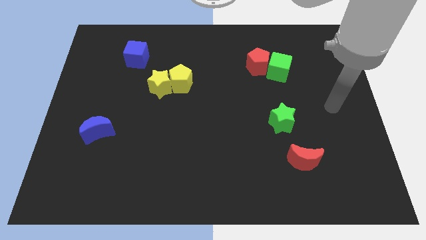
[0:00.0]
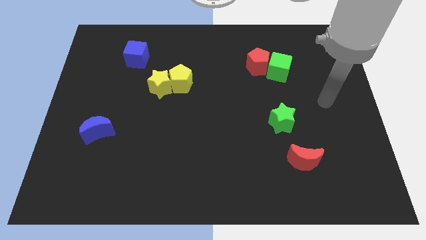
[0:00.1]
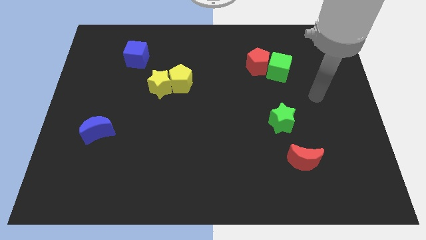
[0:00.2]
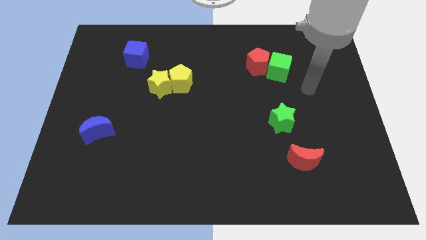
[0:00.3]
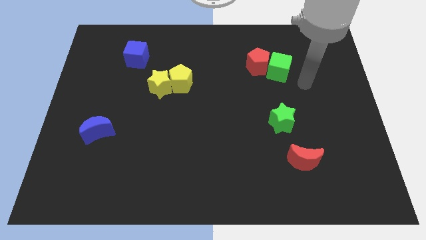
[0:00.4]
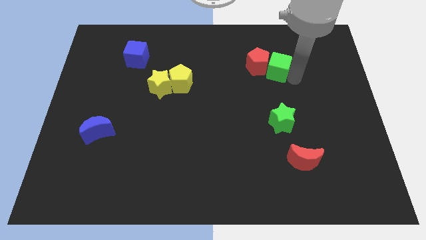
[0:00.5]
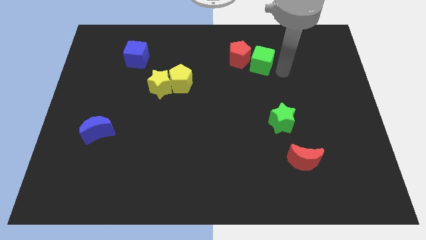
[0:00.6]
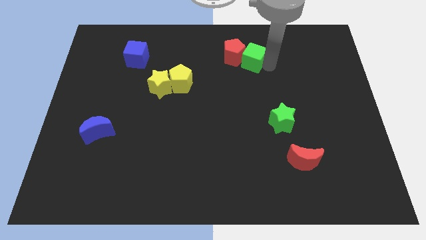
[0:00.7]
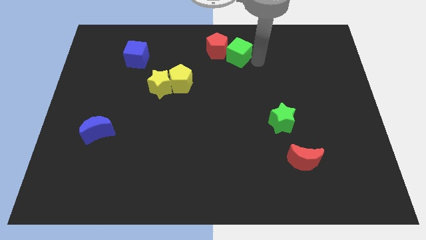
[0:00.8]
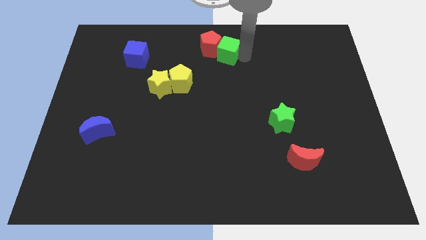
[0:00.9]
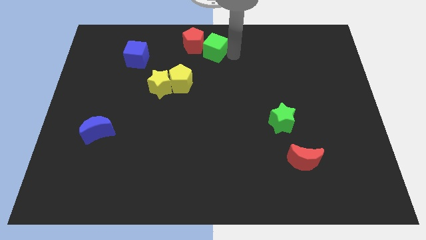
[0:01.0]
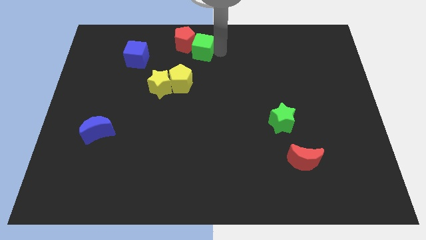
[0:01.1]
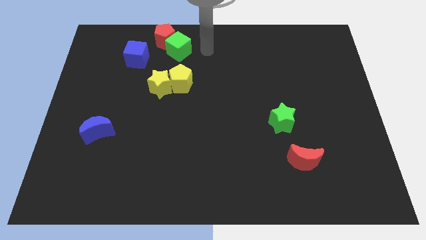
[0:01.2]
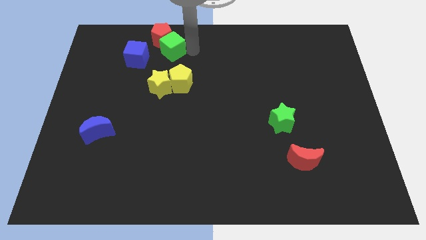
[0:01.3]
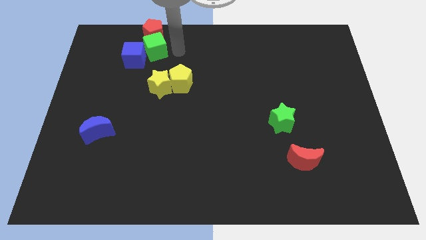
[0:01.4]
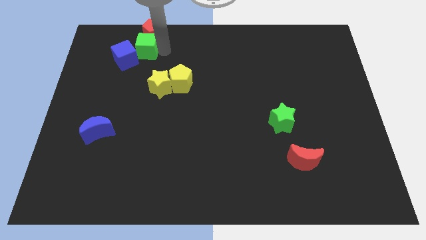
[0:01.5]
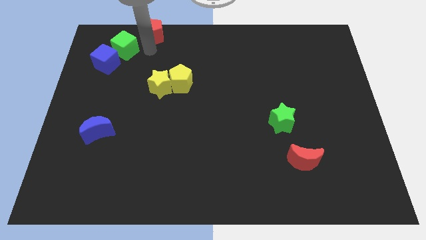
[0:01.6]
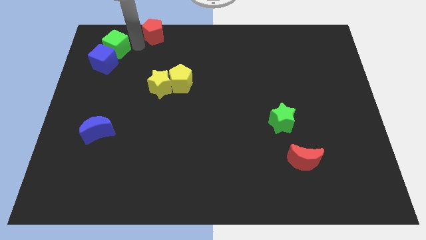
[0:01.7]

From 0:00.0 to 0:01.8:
move the red pentagon away from the green cube

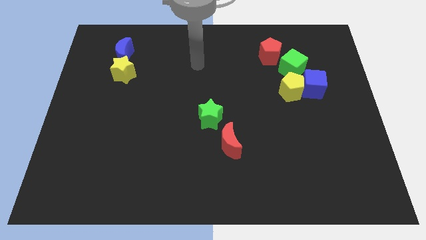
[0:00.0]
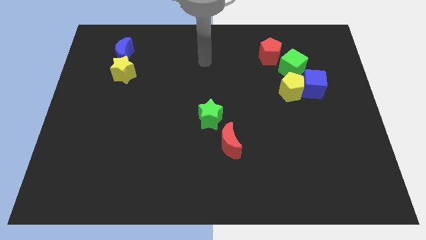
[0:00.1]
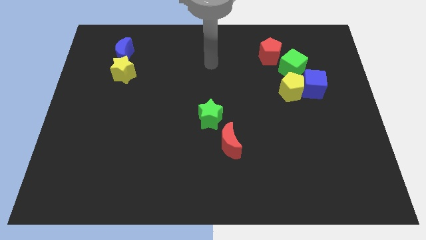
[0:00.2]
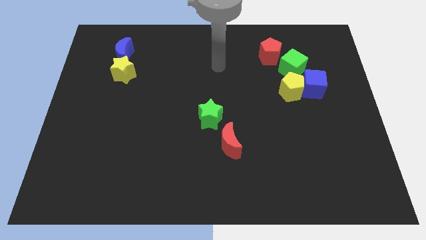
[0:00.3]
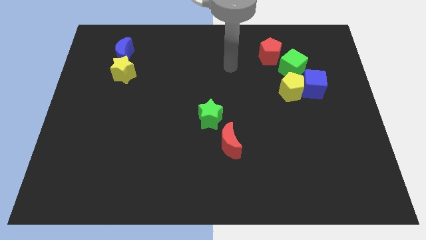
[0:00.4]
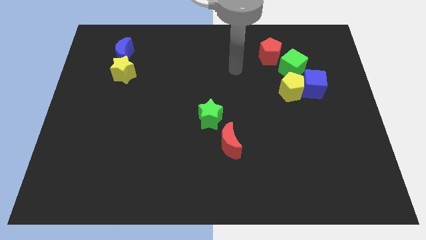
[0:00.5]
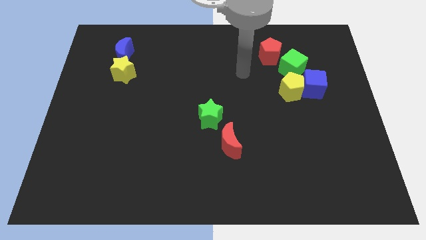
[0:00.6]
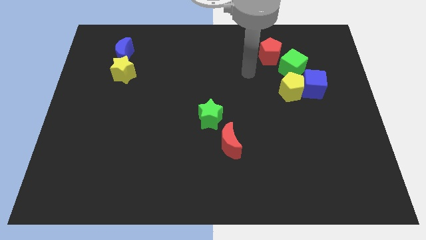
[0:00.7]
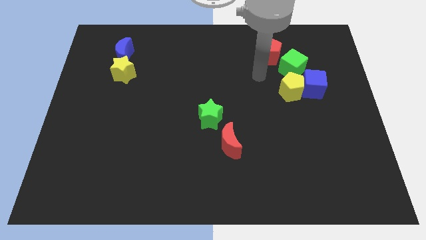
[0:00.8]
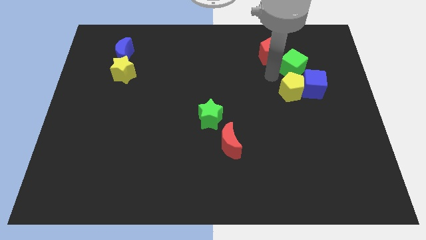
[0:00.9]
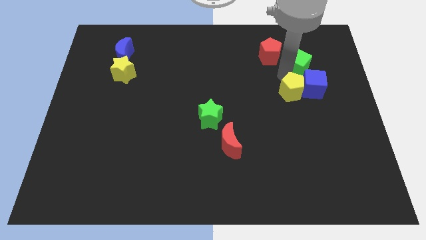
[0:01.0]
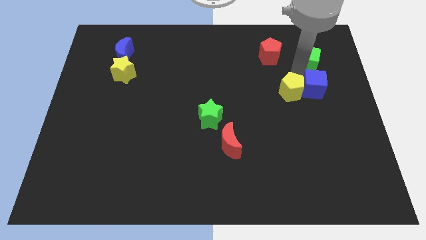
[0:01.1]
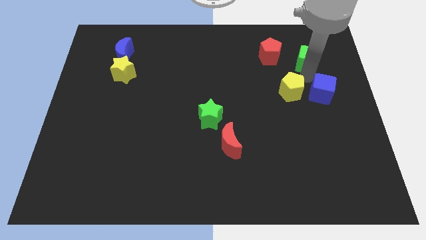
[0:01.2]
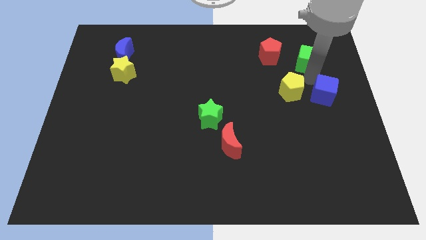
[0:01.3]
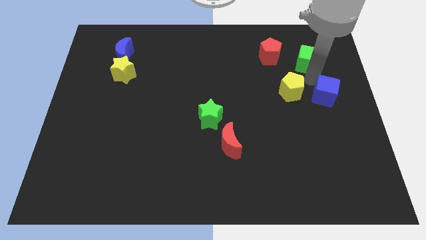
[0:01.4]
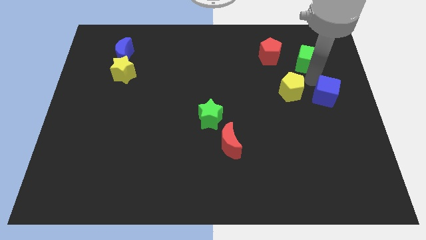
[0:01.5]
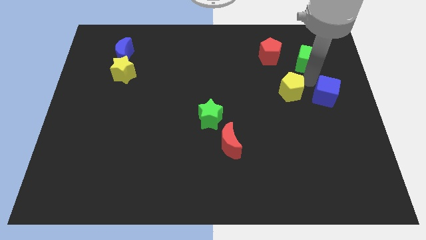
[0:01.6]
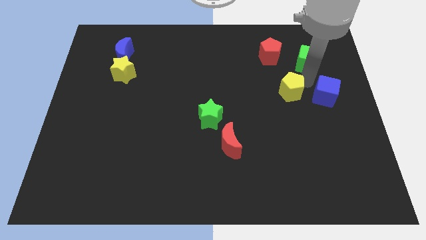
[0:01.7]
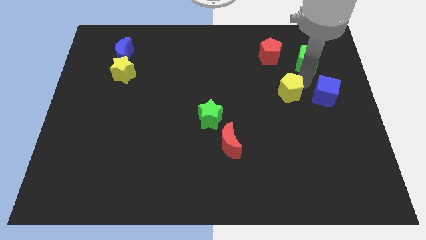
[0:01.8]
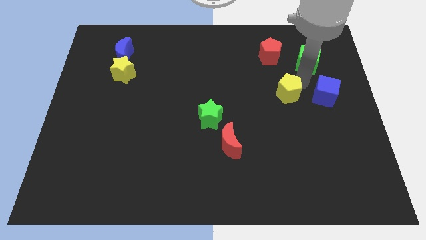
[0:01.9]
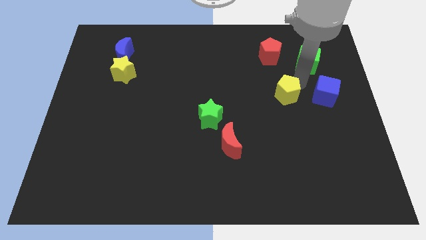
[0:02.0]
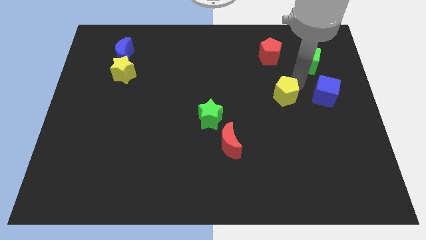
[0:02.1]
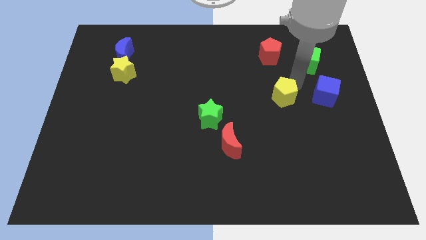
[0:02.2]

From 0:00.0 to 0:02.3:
move the yellow pentagon away from the blue cube and green cube

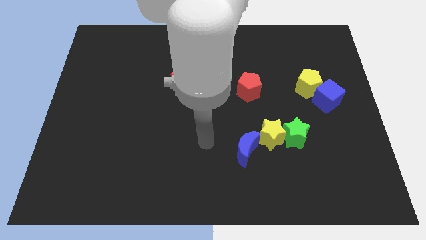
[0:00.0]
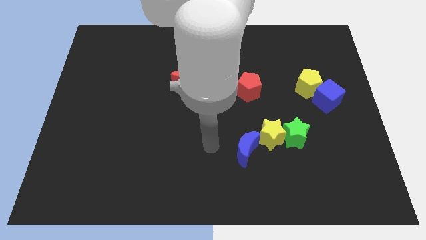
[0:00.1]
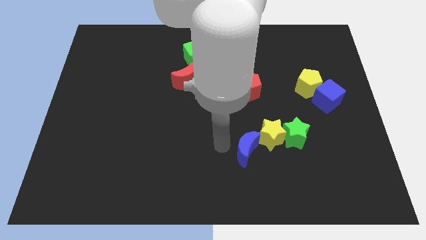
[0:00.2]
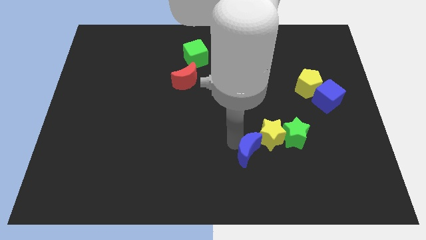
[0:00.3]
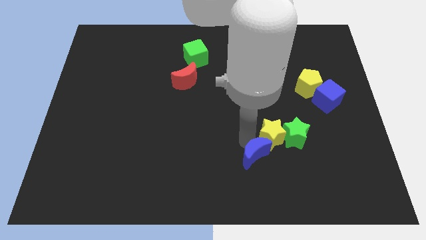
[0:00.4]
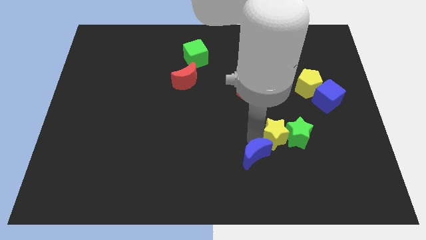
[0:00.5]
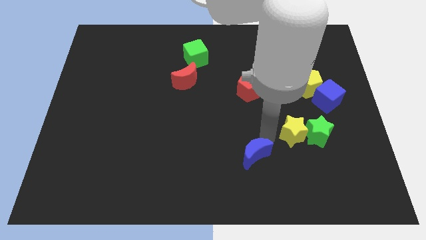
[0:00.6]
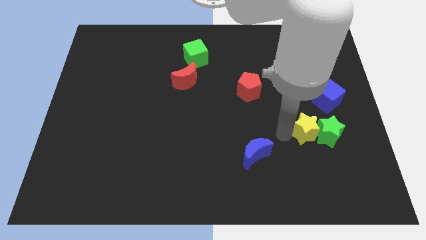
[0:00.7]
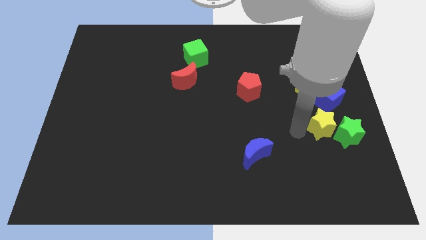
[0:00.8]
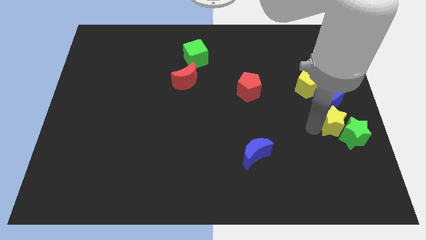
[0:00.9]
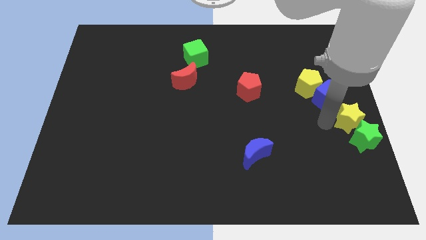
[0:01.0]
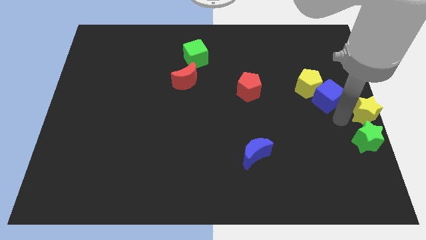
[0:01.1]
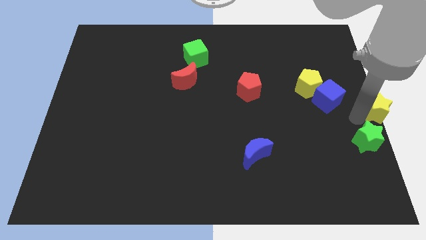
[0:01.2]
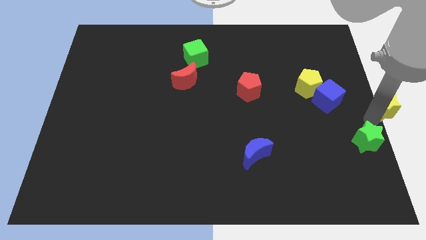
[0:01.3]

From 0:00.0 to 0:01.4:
separate the green star from the yellow star

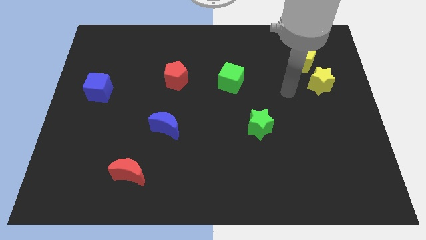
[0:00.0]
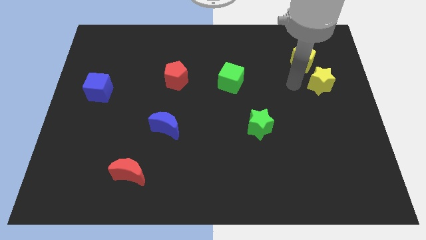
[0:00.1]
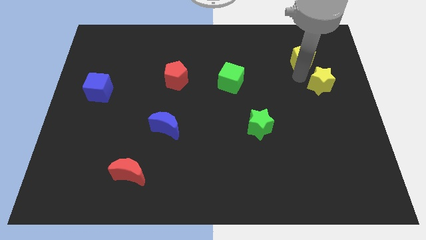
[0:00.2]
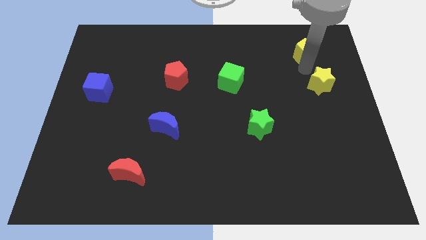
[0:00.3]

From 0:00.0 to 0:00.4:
move the yellow star away from the yellow pentagon

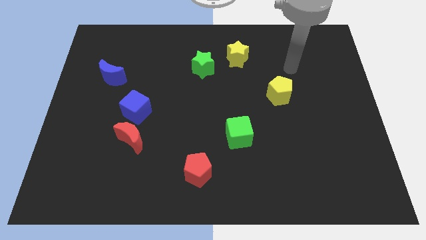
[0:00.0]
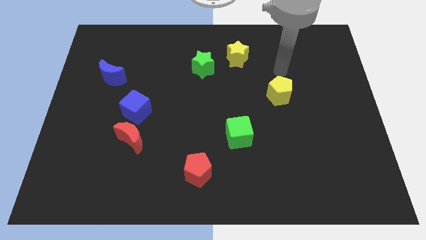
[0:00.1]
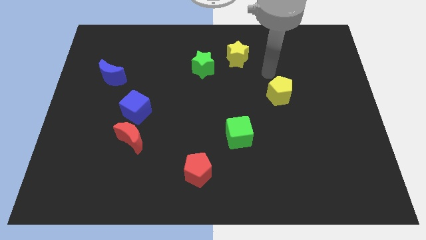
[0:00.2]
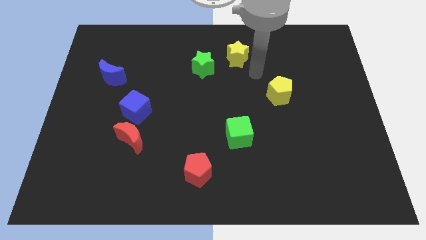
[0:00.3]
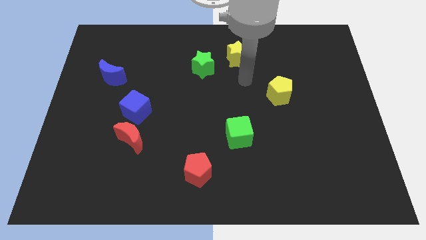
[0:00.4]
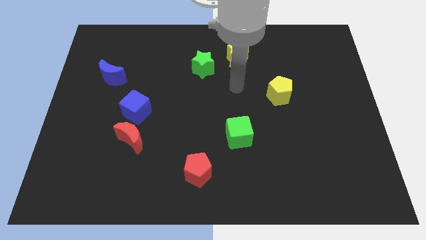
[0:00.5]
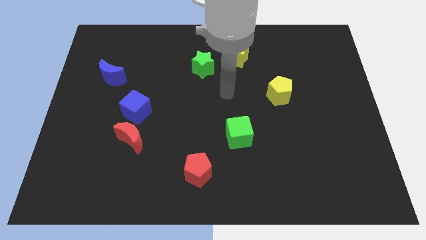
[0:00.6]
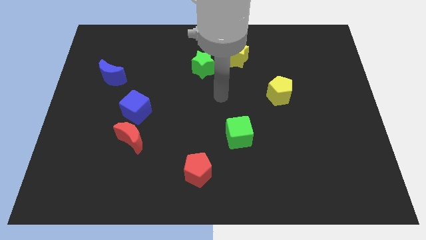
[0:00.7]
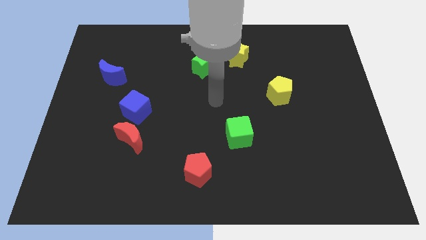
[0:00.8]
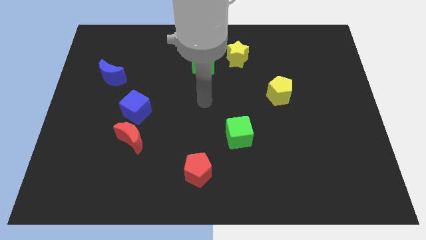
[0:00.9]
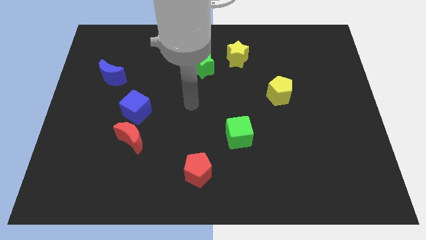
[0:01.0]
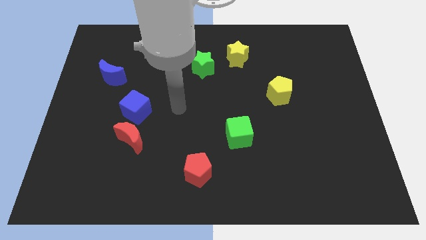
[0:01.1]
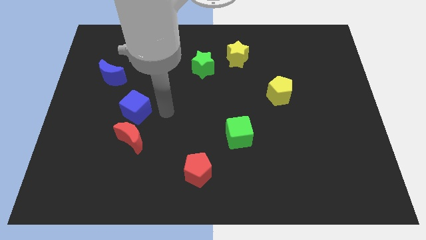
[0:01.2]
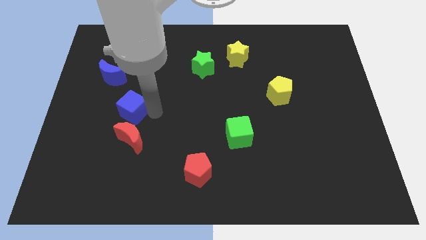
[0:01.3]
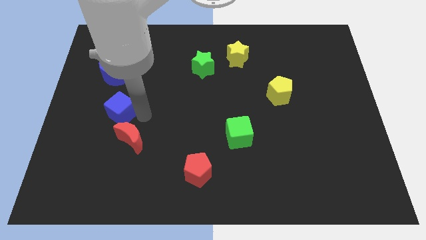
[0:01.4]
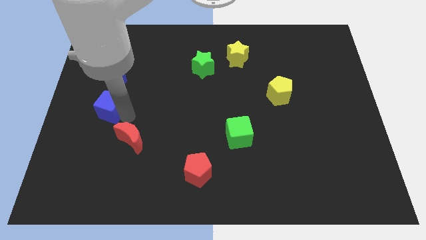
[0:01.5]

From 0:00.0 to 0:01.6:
pull the red moon apart from the blue cube

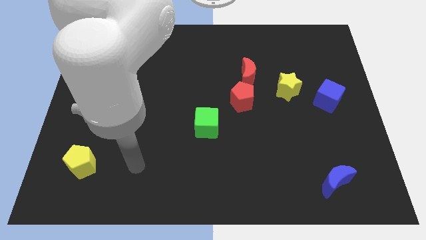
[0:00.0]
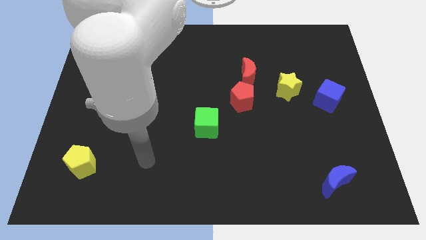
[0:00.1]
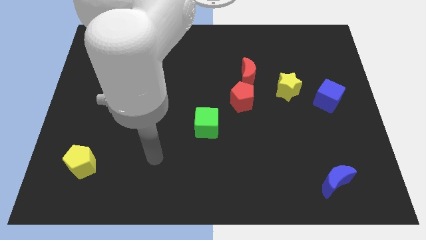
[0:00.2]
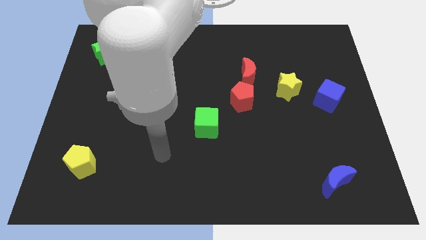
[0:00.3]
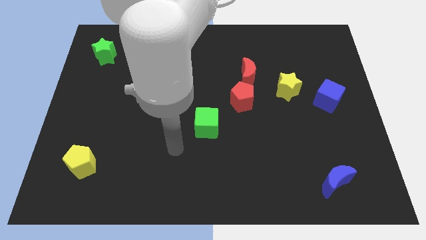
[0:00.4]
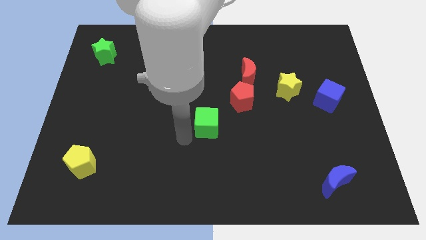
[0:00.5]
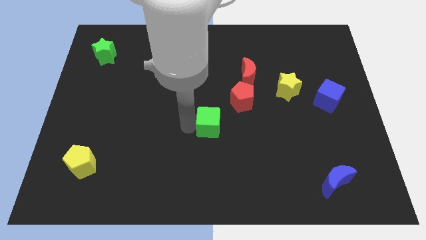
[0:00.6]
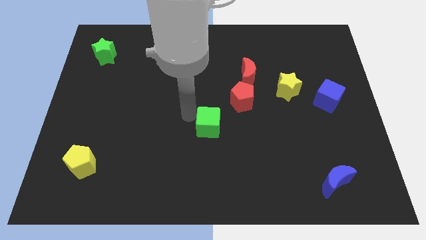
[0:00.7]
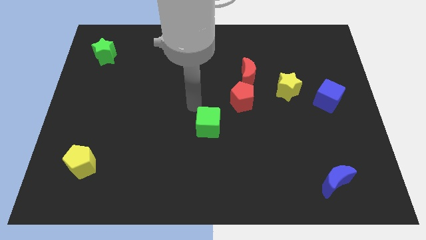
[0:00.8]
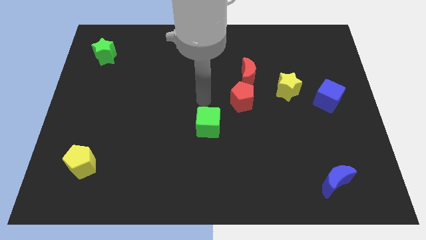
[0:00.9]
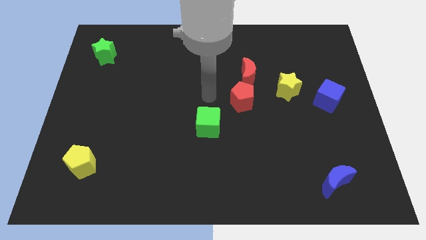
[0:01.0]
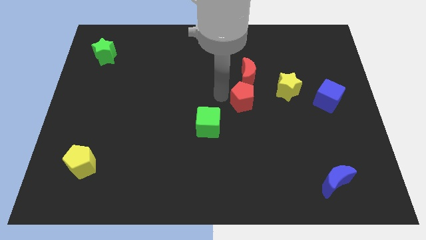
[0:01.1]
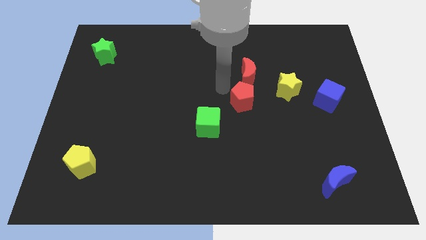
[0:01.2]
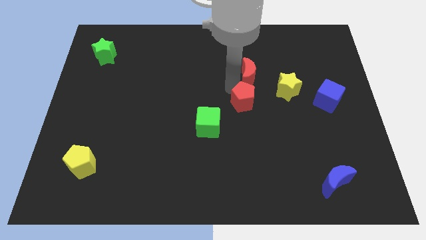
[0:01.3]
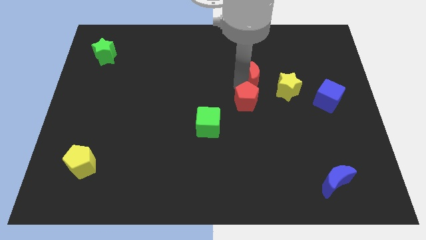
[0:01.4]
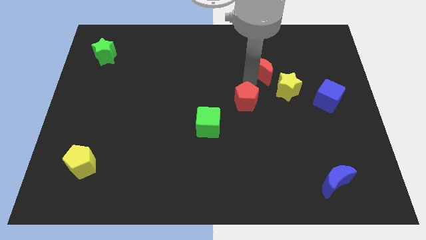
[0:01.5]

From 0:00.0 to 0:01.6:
pull the red pentagon apart from the red moon

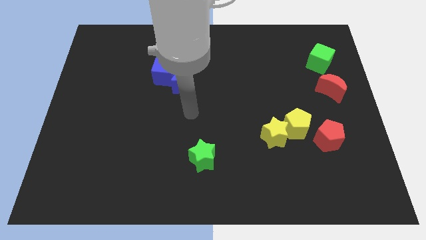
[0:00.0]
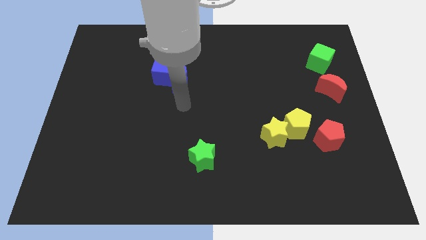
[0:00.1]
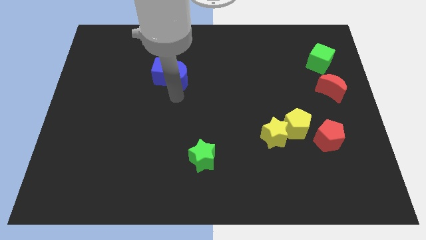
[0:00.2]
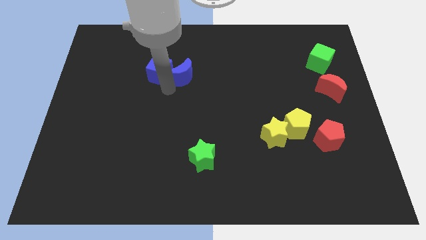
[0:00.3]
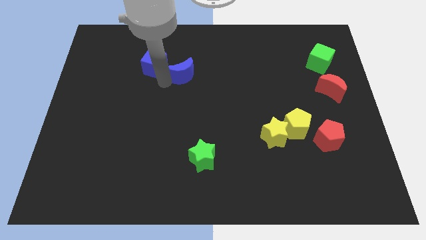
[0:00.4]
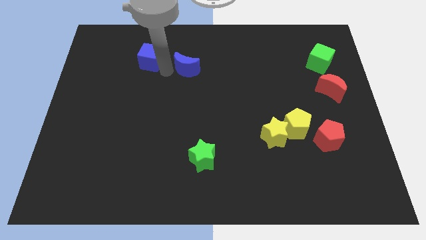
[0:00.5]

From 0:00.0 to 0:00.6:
separate the blue moon from the blue cube
